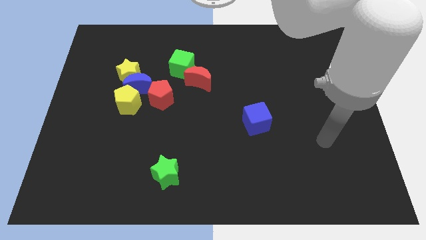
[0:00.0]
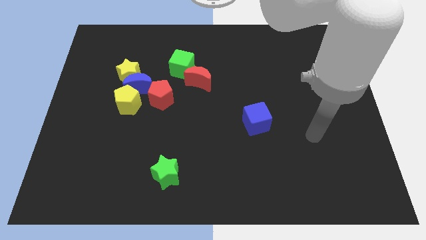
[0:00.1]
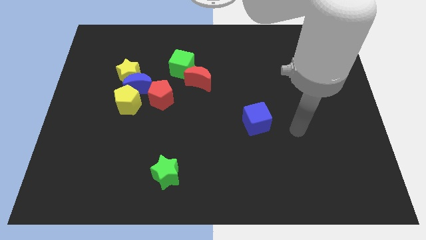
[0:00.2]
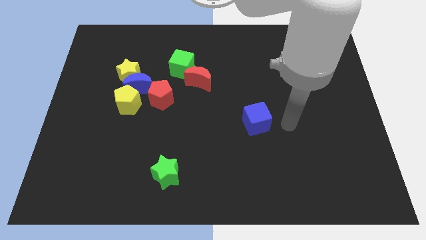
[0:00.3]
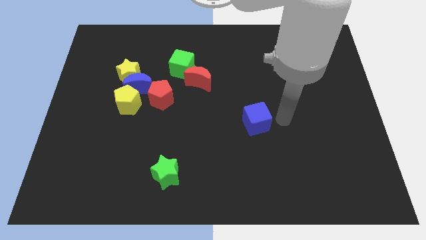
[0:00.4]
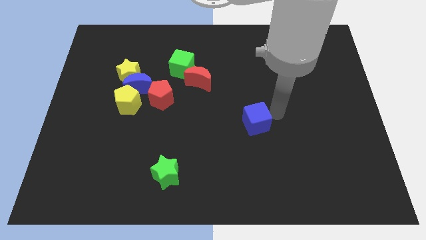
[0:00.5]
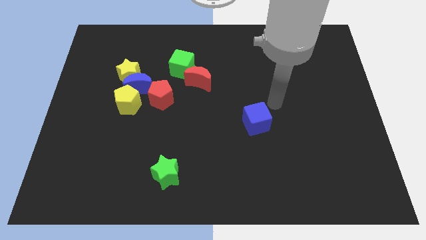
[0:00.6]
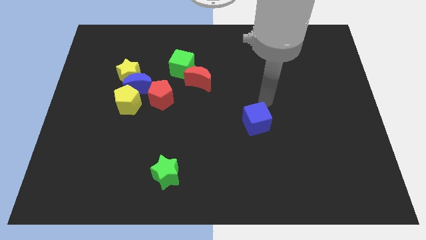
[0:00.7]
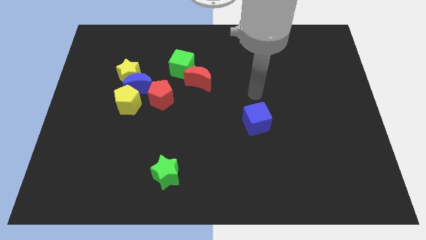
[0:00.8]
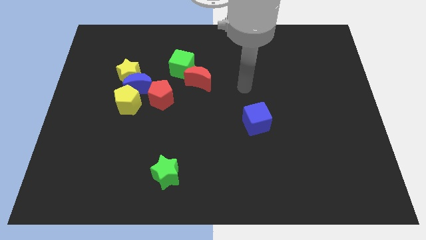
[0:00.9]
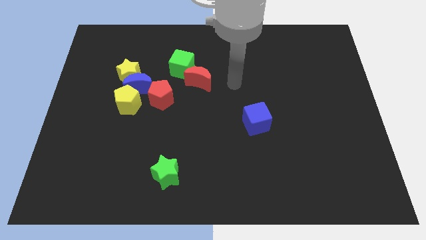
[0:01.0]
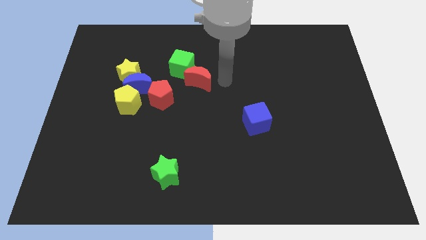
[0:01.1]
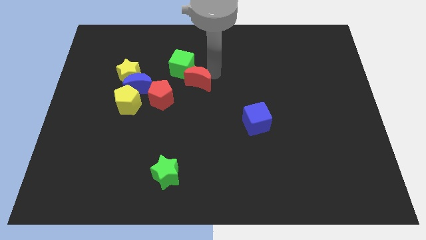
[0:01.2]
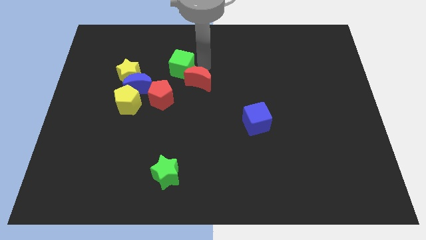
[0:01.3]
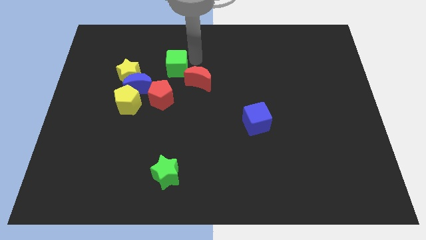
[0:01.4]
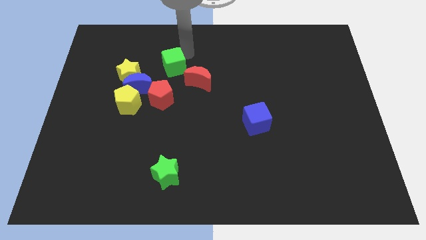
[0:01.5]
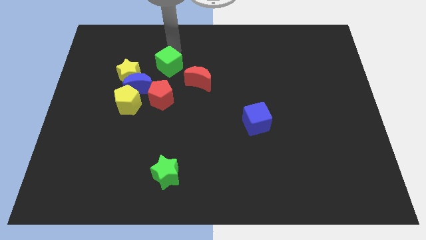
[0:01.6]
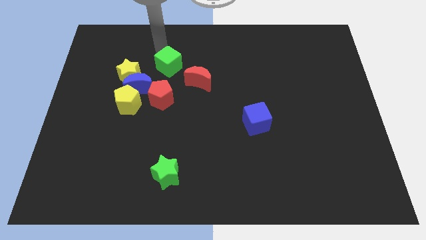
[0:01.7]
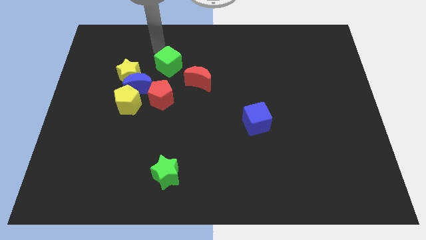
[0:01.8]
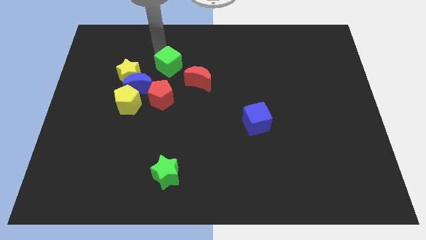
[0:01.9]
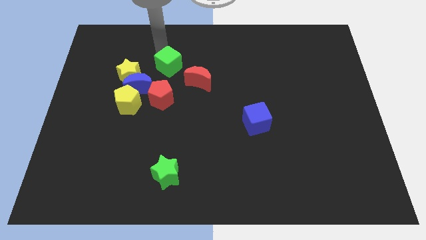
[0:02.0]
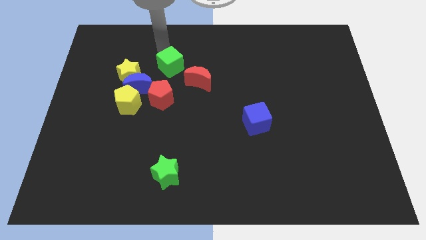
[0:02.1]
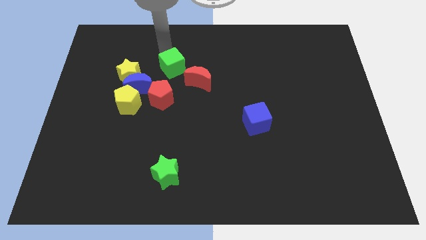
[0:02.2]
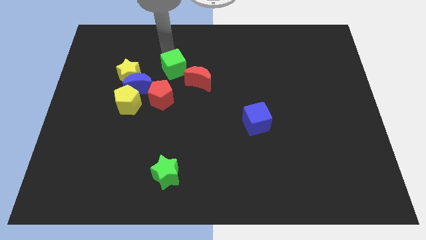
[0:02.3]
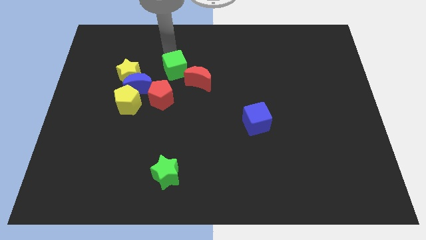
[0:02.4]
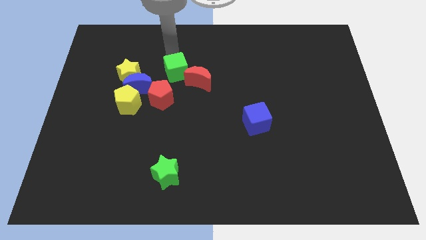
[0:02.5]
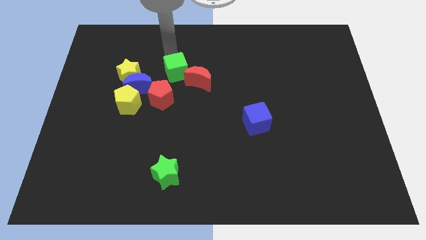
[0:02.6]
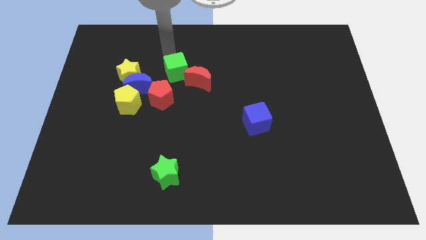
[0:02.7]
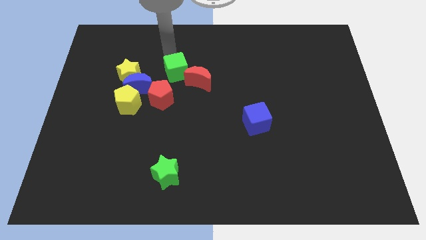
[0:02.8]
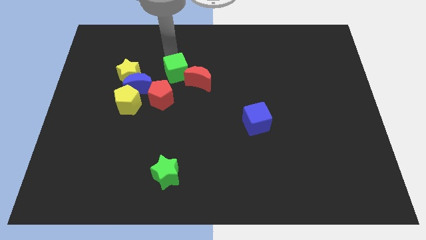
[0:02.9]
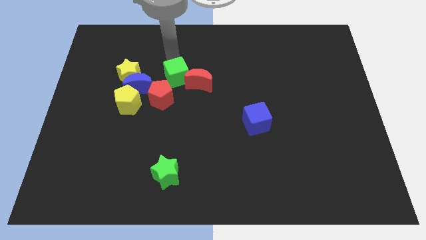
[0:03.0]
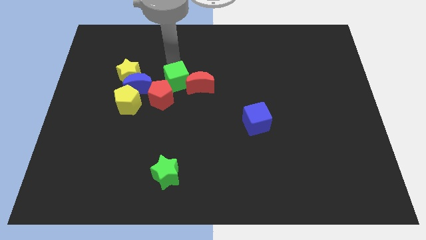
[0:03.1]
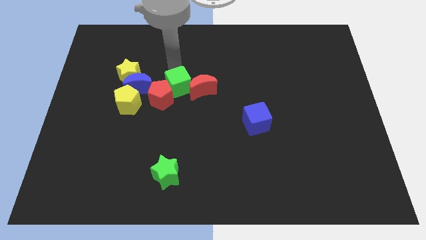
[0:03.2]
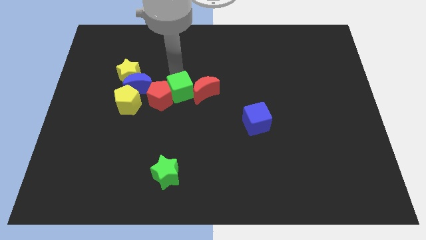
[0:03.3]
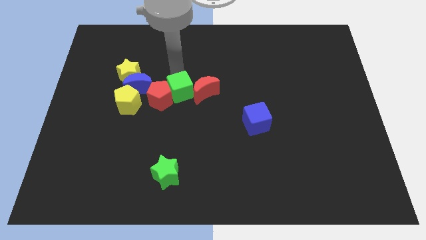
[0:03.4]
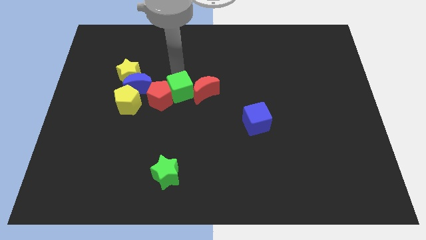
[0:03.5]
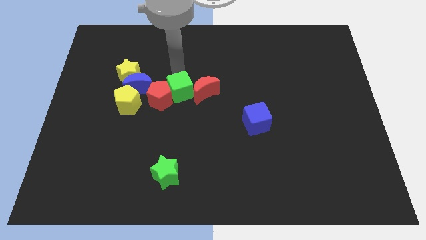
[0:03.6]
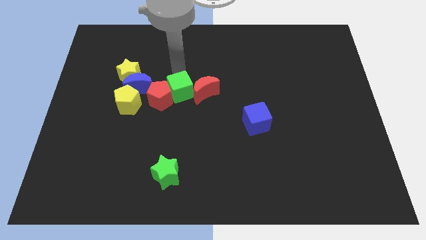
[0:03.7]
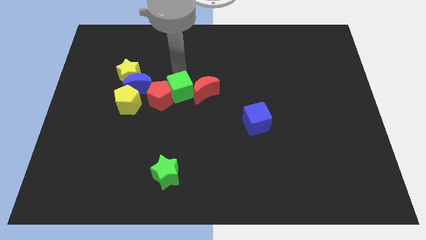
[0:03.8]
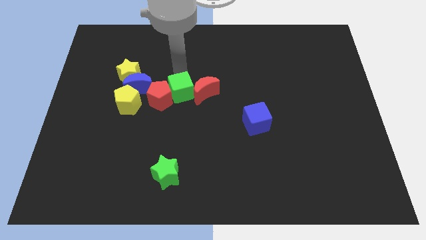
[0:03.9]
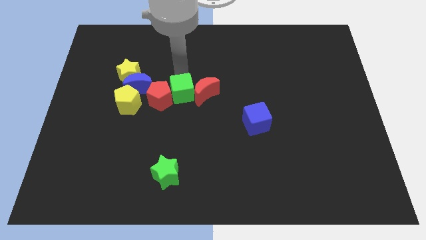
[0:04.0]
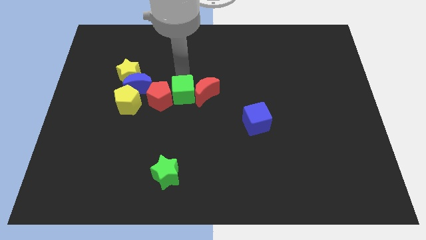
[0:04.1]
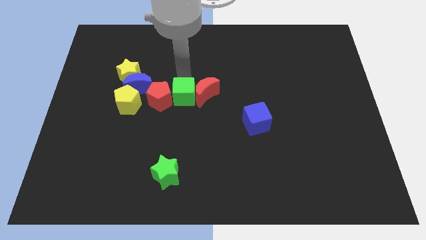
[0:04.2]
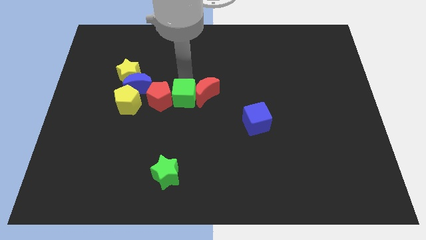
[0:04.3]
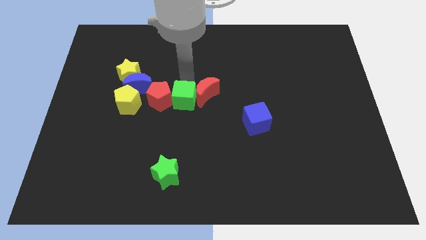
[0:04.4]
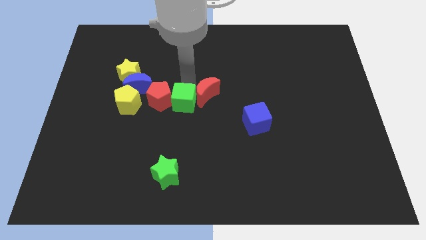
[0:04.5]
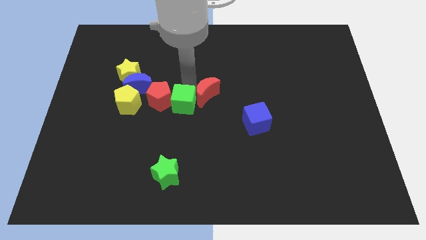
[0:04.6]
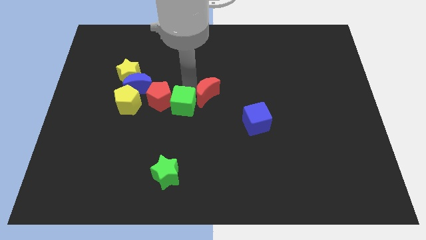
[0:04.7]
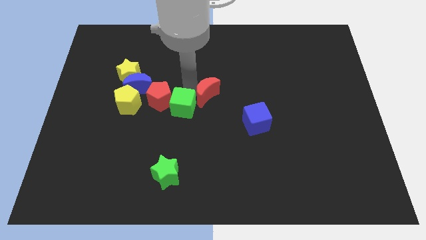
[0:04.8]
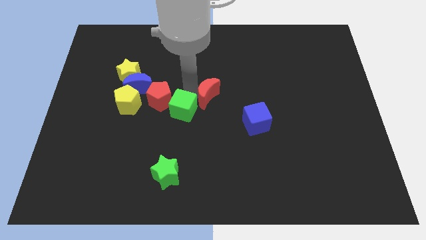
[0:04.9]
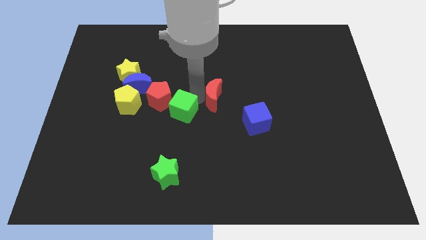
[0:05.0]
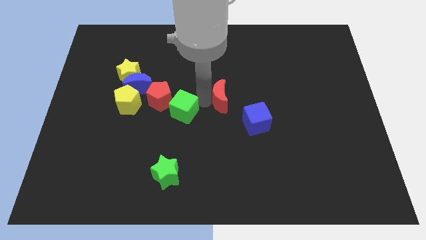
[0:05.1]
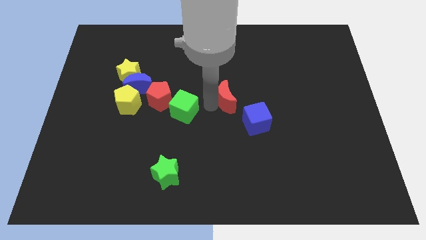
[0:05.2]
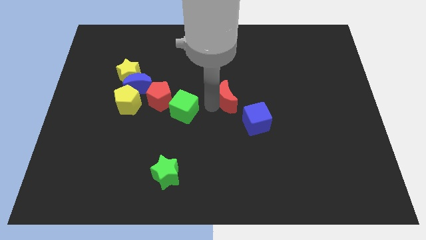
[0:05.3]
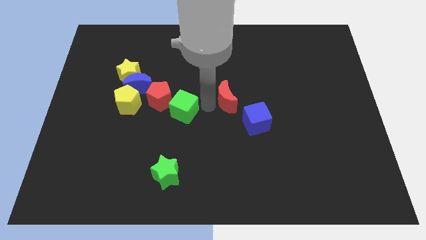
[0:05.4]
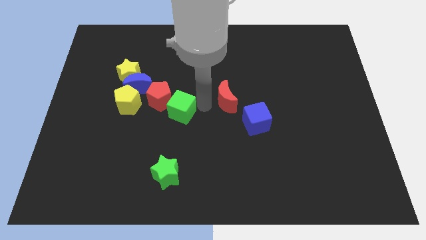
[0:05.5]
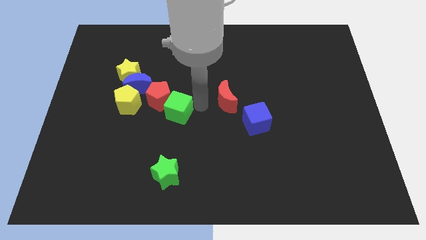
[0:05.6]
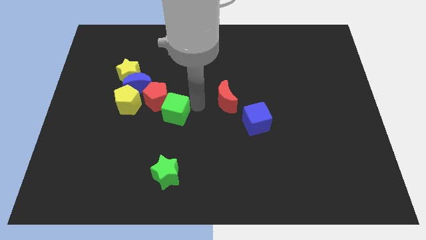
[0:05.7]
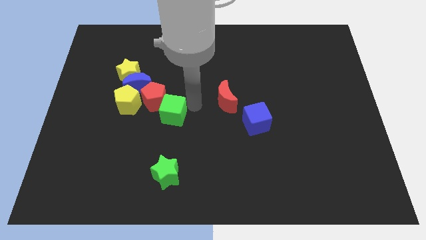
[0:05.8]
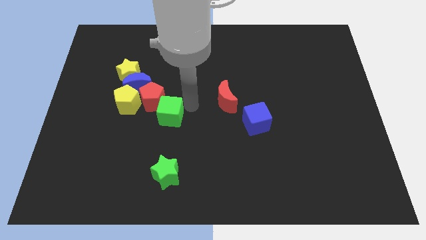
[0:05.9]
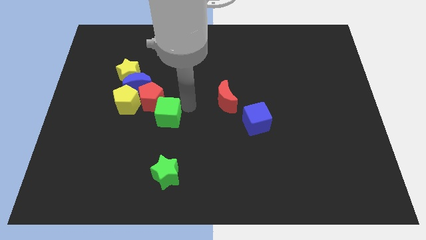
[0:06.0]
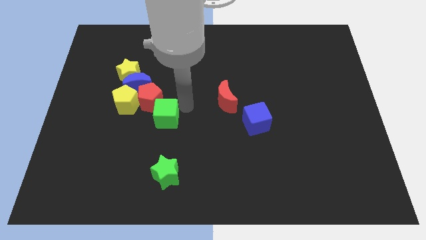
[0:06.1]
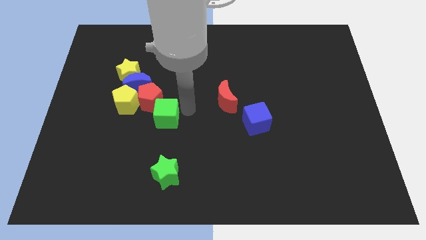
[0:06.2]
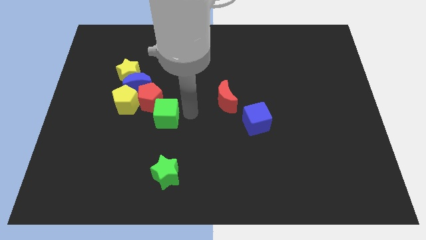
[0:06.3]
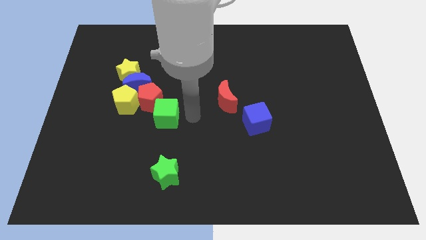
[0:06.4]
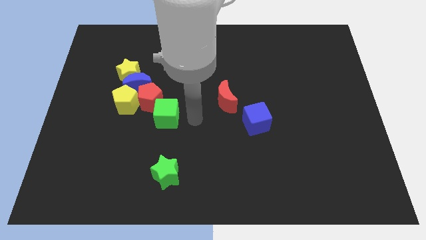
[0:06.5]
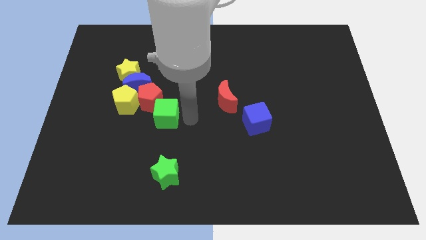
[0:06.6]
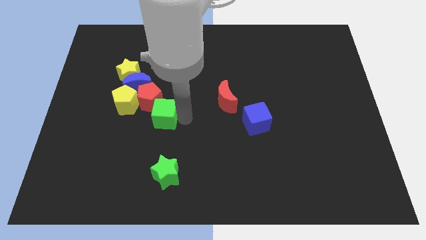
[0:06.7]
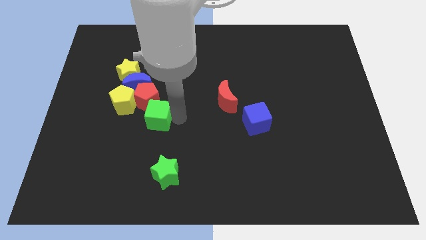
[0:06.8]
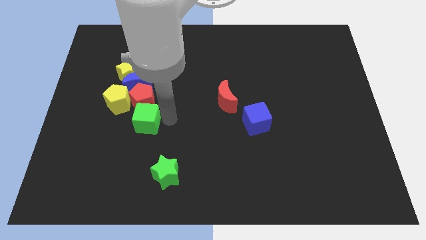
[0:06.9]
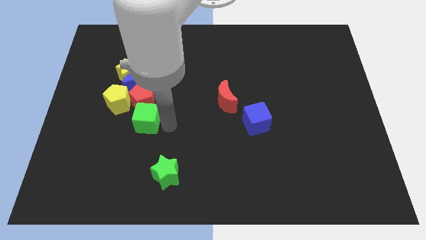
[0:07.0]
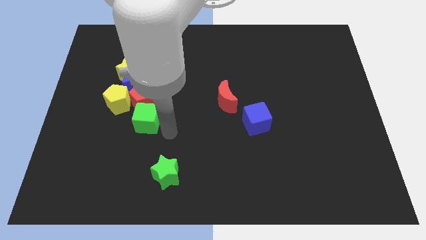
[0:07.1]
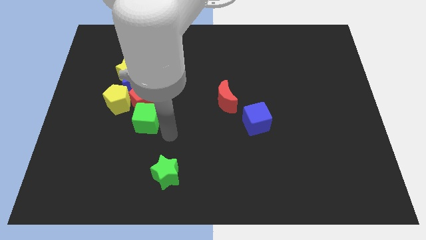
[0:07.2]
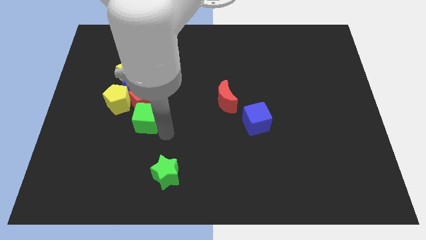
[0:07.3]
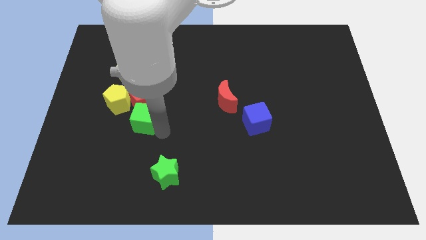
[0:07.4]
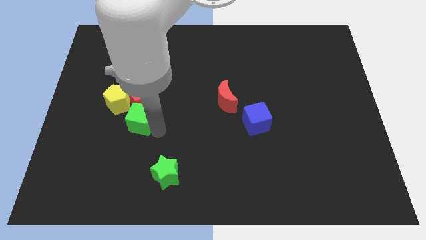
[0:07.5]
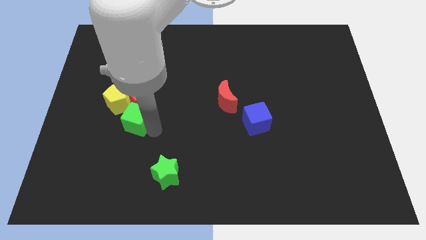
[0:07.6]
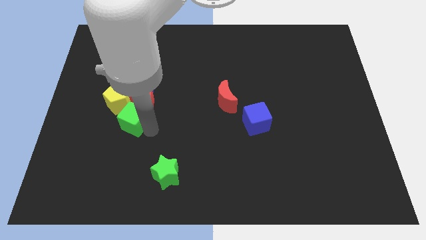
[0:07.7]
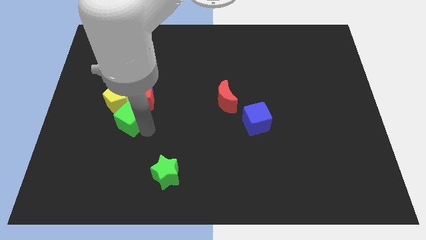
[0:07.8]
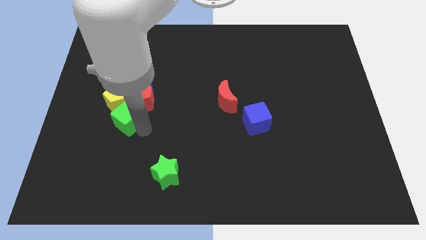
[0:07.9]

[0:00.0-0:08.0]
put the green cube to the yellow pentagon
